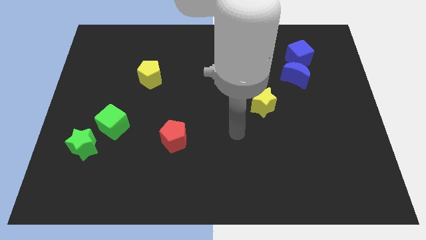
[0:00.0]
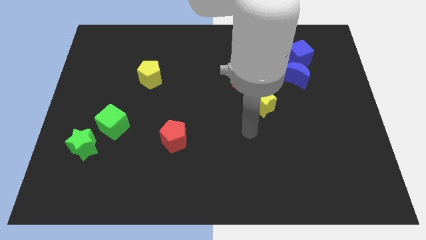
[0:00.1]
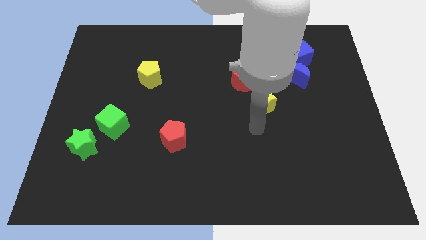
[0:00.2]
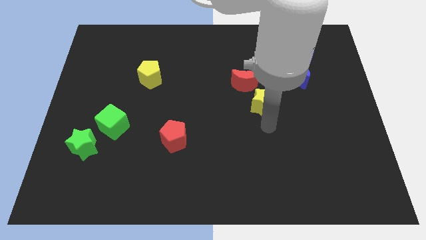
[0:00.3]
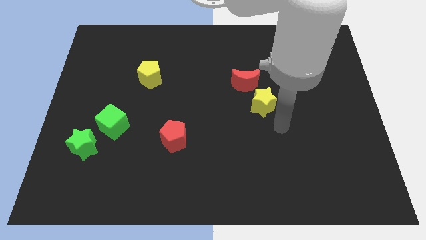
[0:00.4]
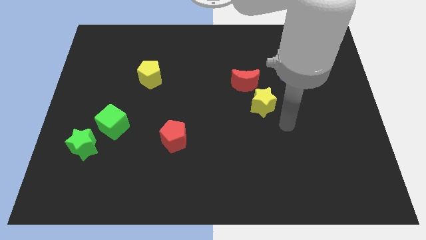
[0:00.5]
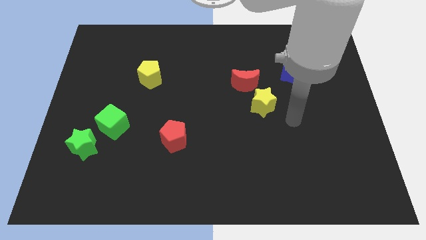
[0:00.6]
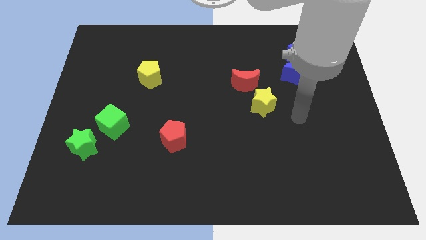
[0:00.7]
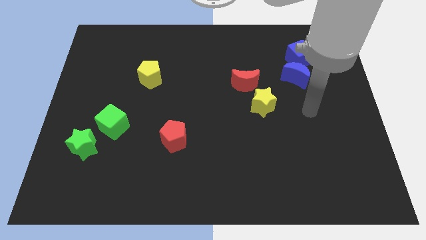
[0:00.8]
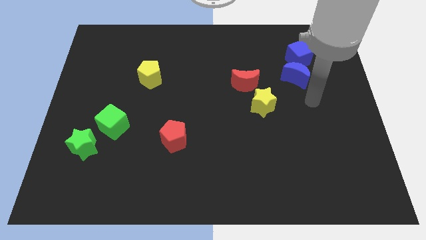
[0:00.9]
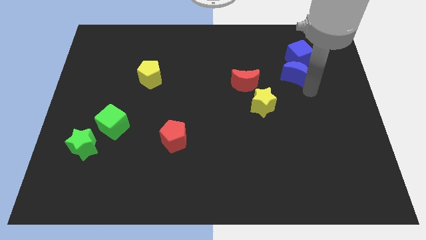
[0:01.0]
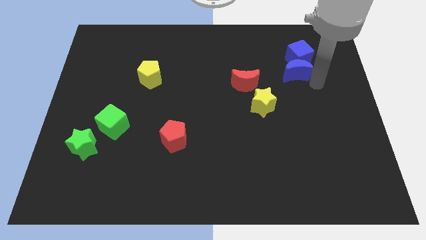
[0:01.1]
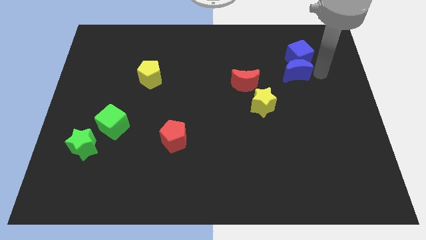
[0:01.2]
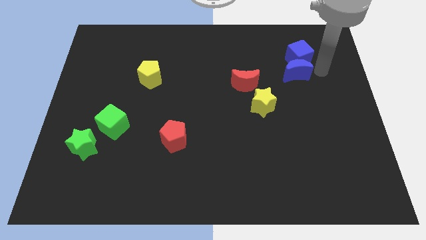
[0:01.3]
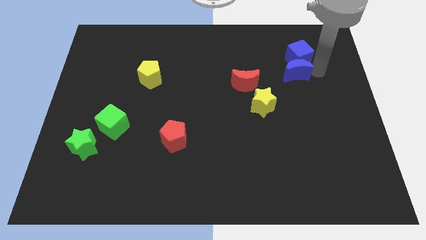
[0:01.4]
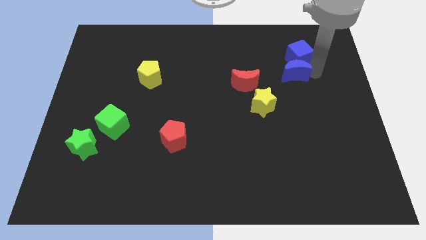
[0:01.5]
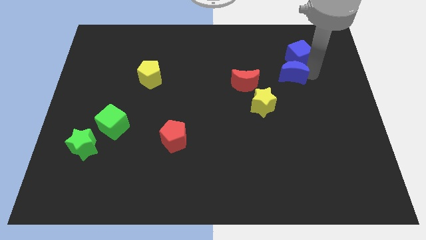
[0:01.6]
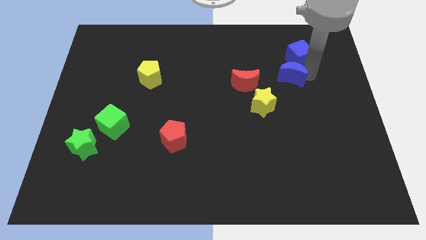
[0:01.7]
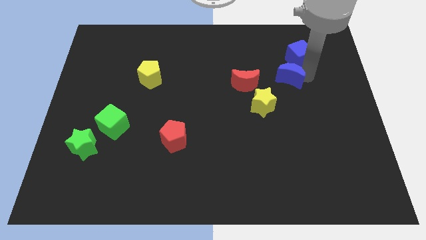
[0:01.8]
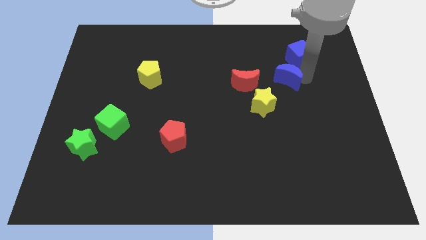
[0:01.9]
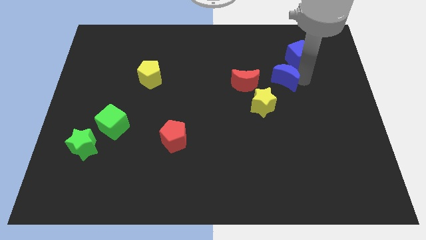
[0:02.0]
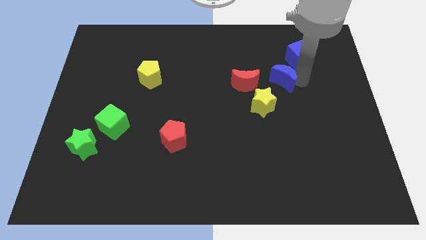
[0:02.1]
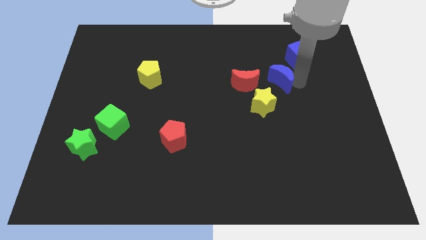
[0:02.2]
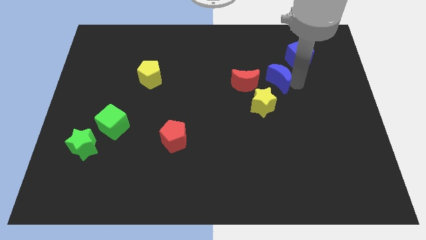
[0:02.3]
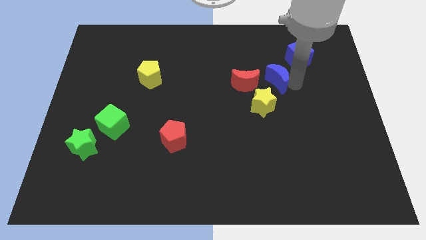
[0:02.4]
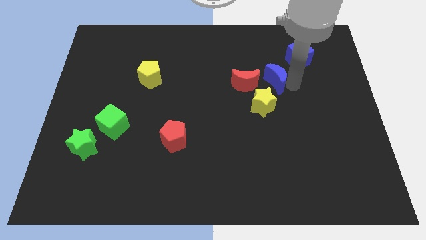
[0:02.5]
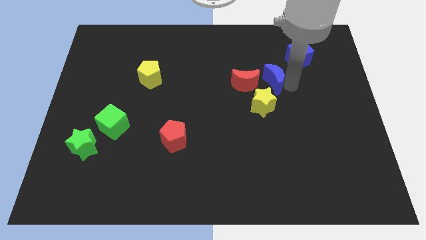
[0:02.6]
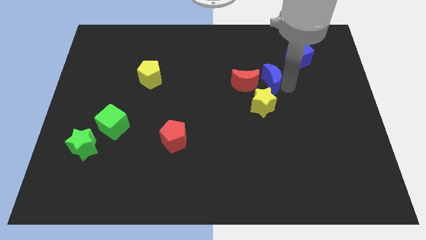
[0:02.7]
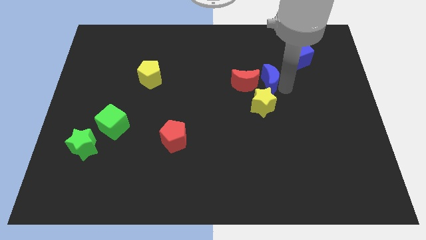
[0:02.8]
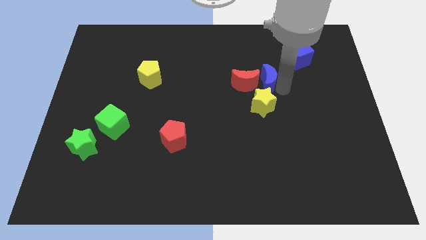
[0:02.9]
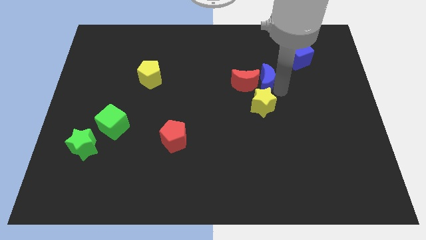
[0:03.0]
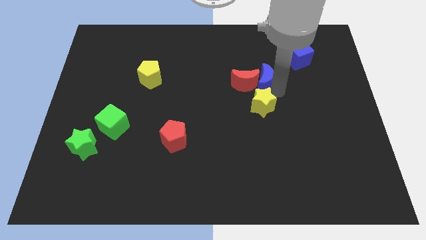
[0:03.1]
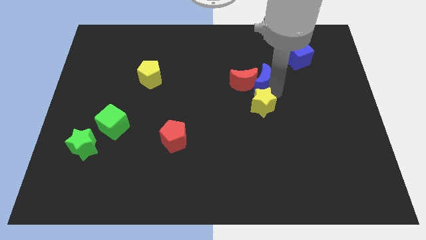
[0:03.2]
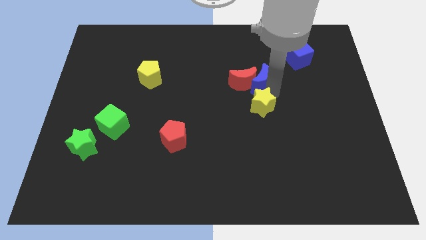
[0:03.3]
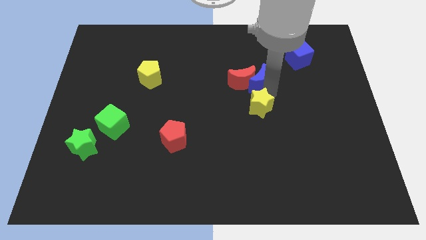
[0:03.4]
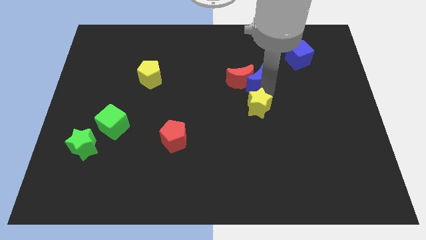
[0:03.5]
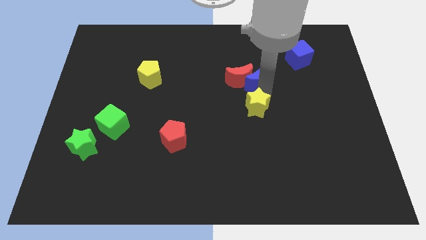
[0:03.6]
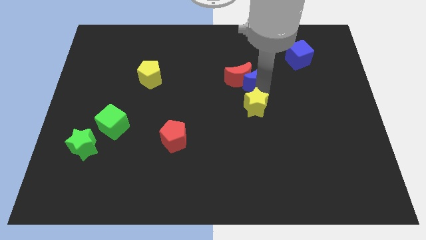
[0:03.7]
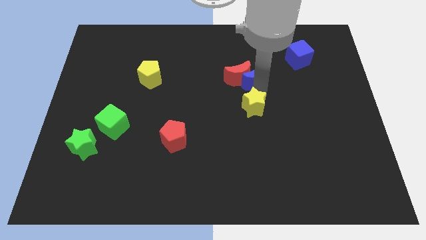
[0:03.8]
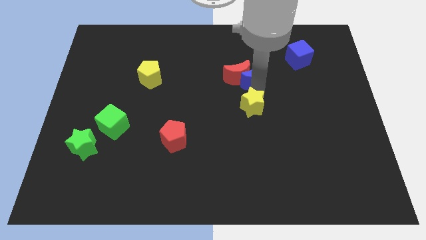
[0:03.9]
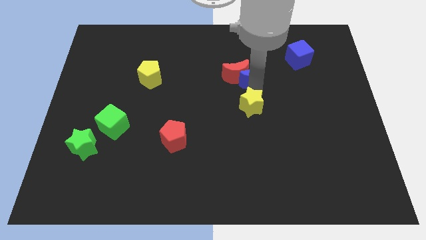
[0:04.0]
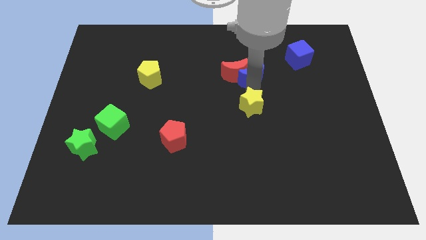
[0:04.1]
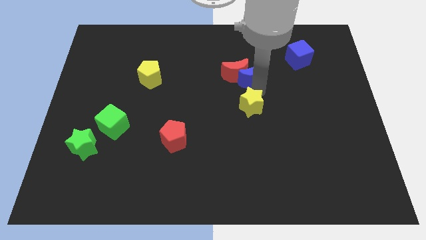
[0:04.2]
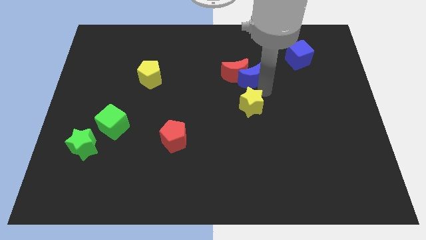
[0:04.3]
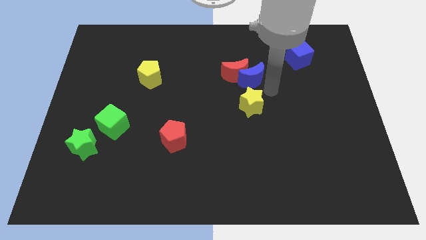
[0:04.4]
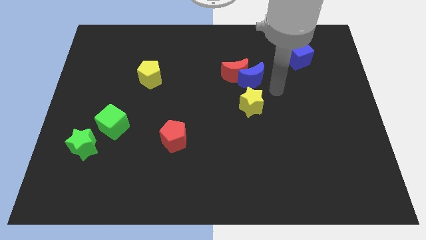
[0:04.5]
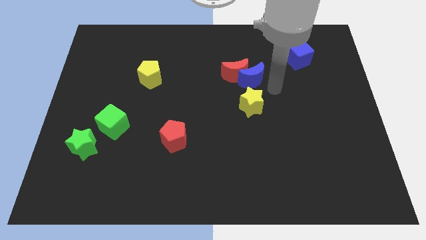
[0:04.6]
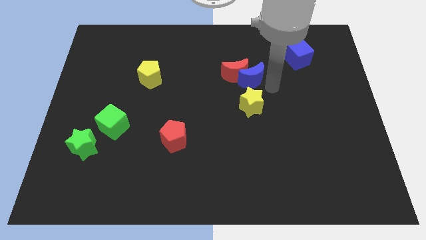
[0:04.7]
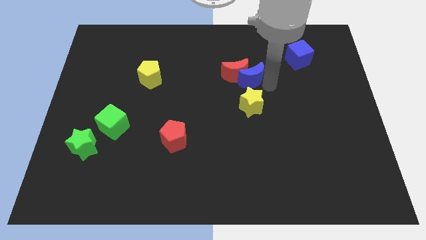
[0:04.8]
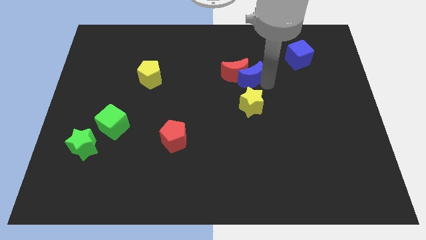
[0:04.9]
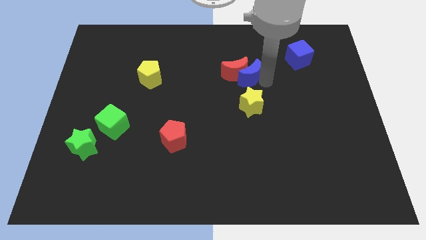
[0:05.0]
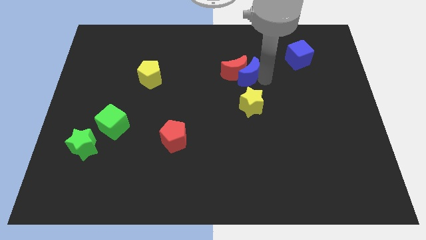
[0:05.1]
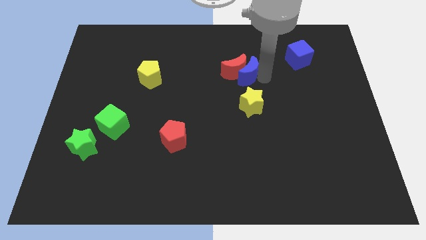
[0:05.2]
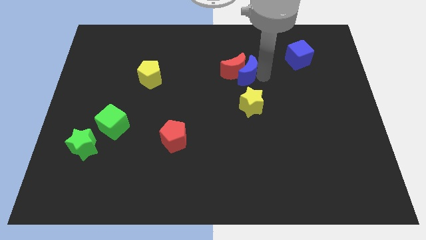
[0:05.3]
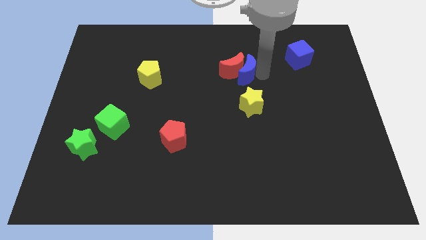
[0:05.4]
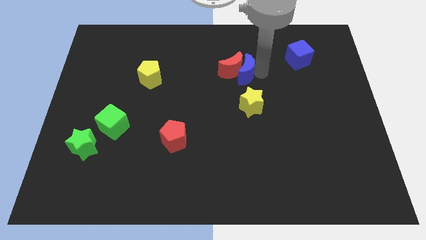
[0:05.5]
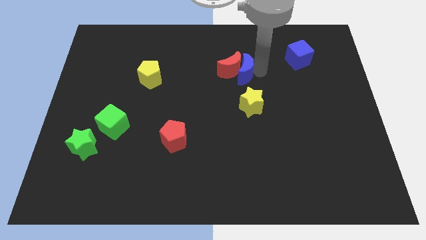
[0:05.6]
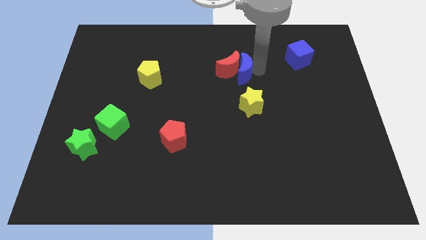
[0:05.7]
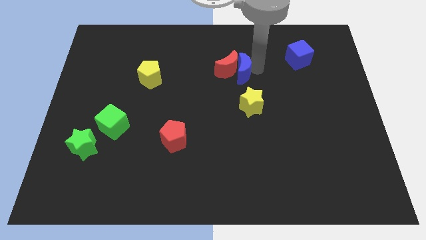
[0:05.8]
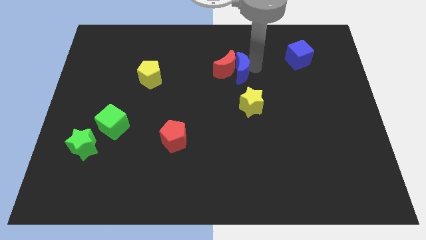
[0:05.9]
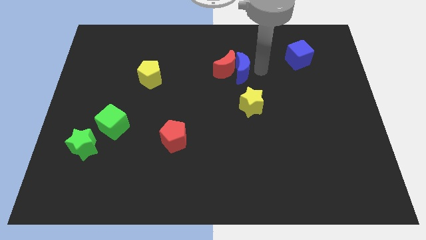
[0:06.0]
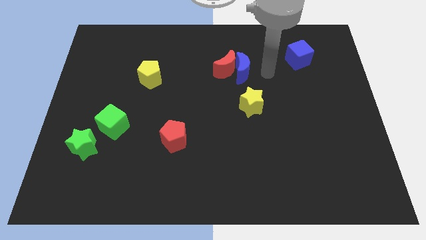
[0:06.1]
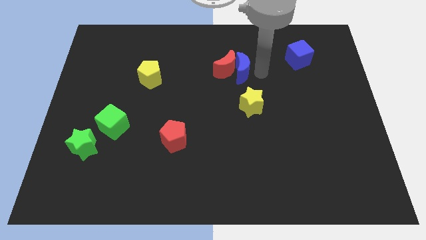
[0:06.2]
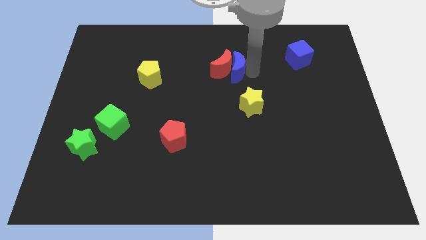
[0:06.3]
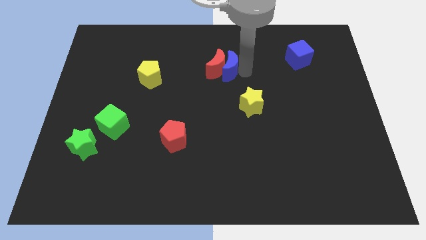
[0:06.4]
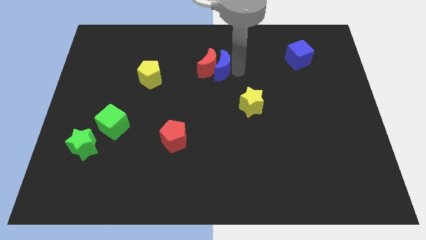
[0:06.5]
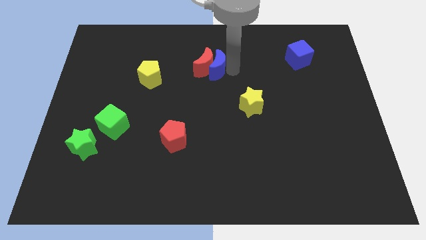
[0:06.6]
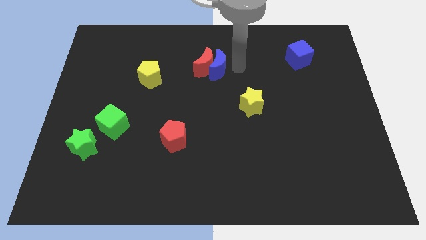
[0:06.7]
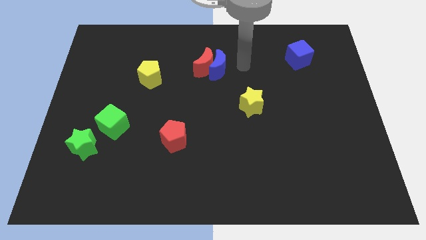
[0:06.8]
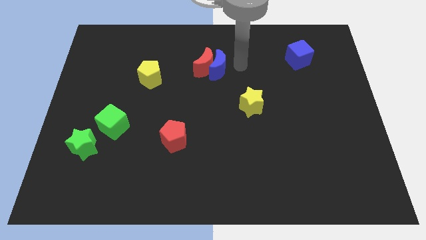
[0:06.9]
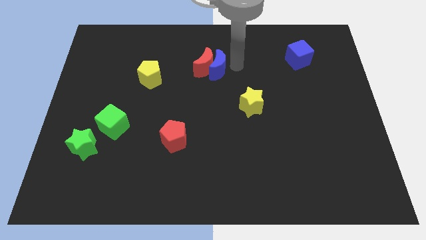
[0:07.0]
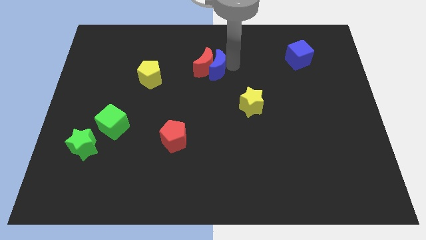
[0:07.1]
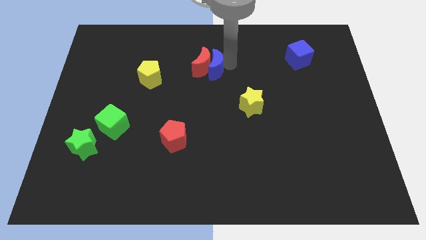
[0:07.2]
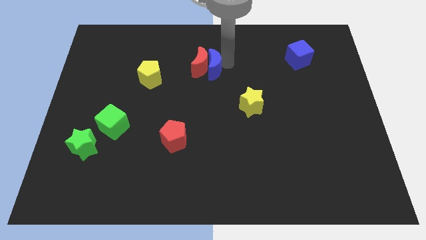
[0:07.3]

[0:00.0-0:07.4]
move the blue moon to the left

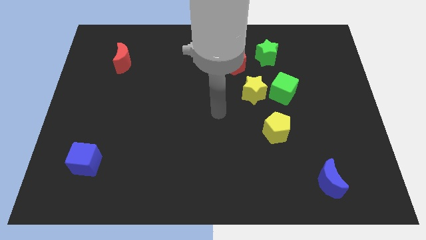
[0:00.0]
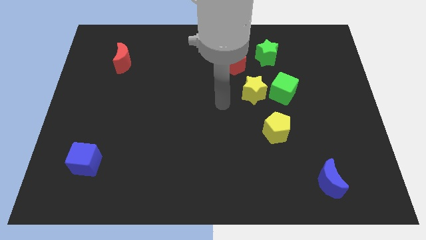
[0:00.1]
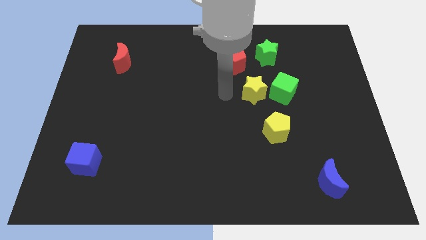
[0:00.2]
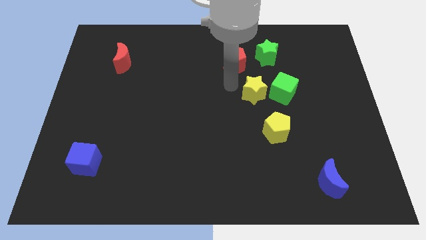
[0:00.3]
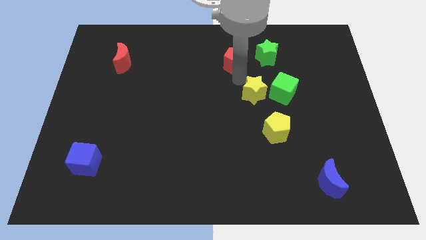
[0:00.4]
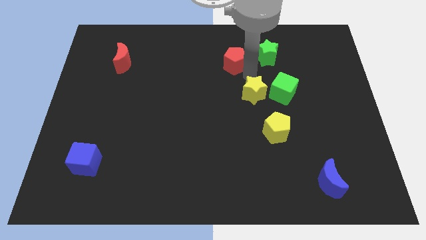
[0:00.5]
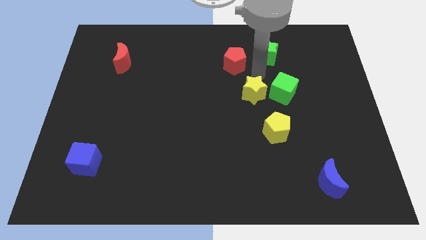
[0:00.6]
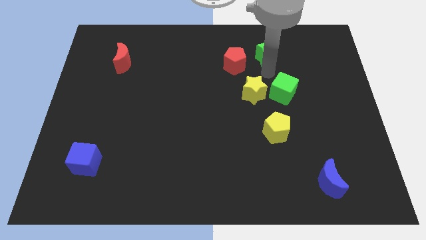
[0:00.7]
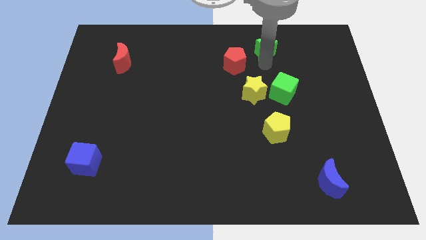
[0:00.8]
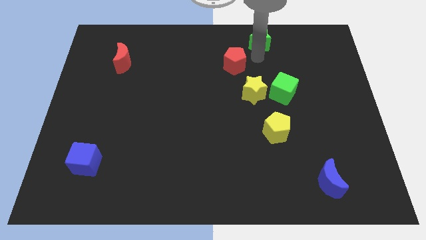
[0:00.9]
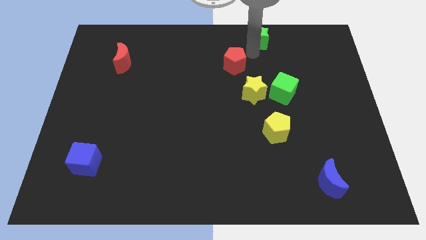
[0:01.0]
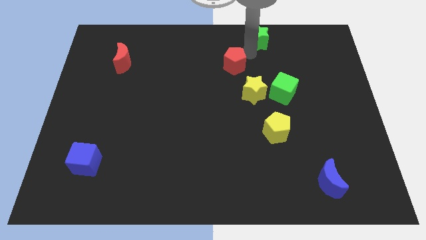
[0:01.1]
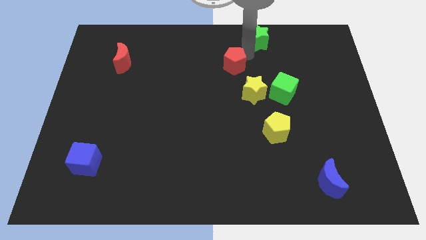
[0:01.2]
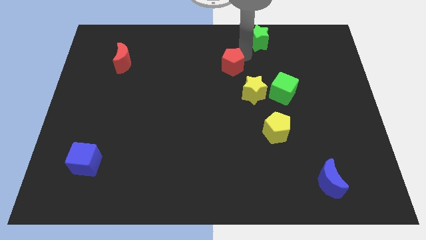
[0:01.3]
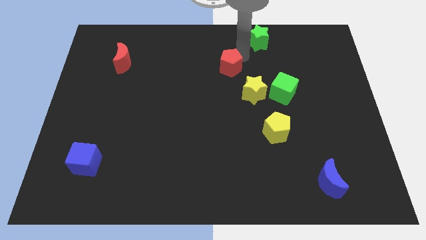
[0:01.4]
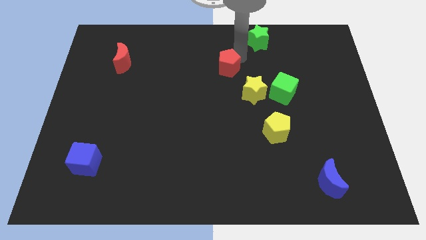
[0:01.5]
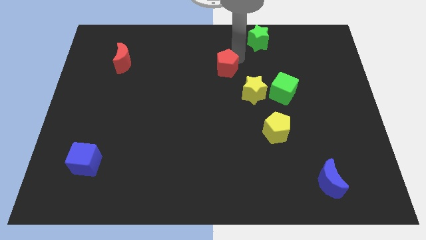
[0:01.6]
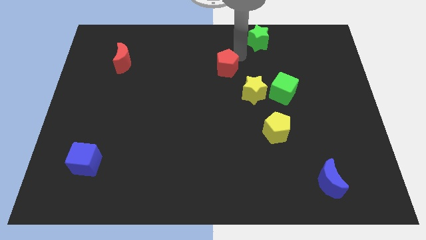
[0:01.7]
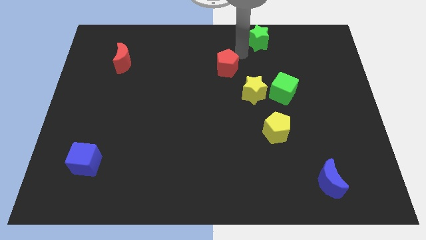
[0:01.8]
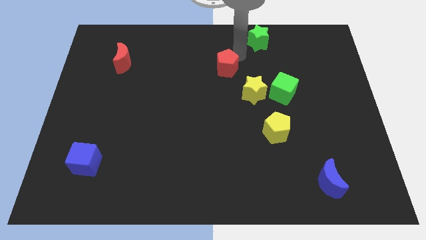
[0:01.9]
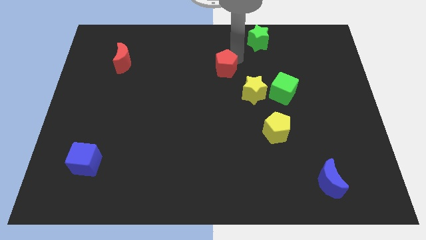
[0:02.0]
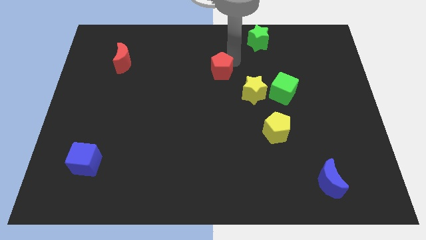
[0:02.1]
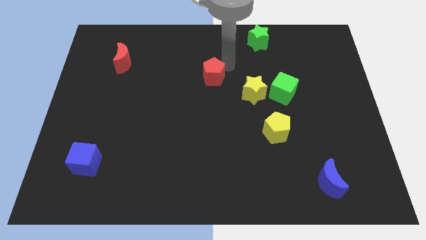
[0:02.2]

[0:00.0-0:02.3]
move the red pentagon downwards and to the left diagonally a little bit
